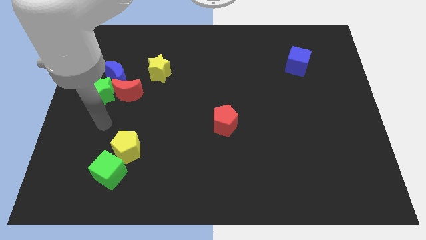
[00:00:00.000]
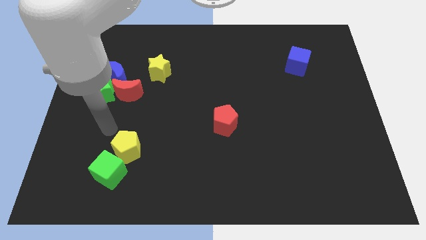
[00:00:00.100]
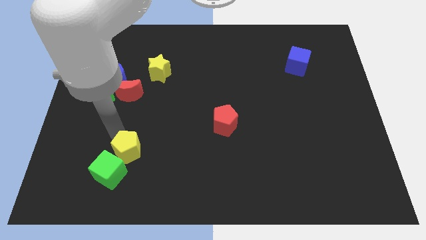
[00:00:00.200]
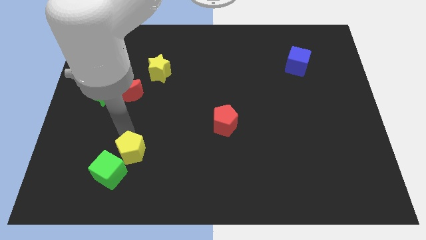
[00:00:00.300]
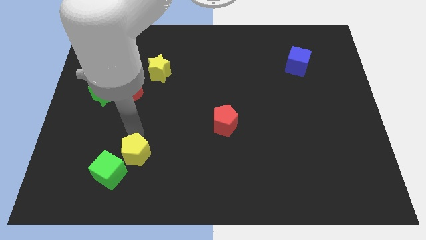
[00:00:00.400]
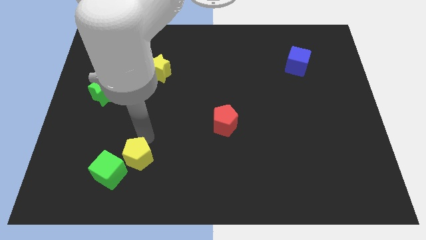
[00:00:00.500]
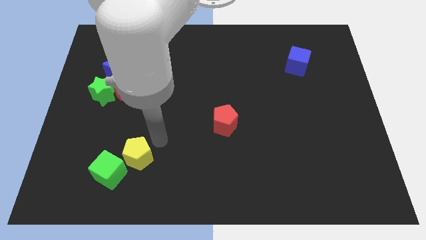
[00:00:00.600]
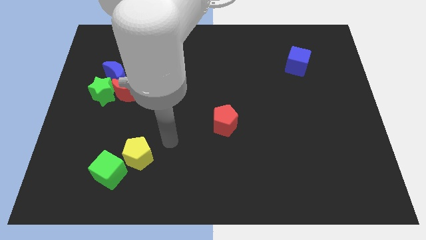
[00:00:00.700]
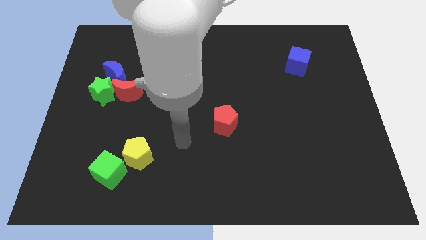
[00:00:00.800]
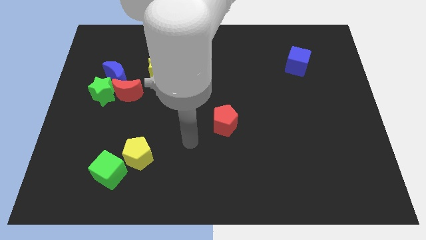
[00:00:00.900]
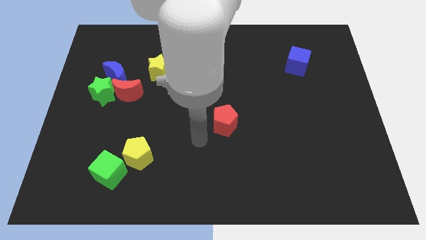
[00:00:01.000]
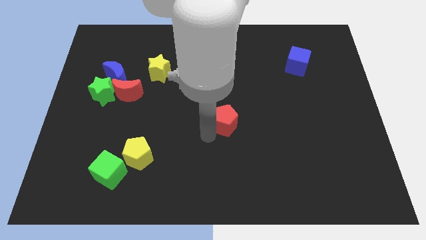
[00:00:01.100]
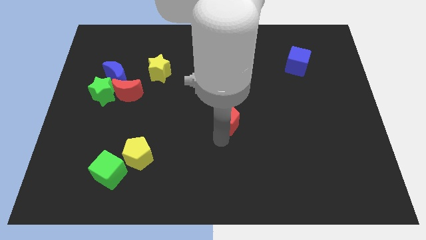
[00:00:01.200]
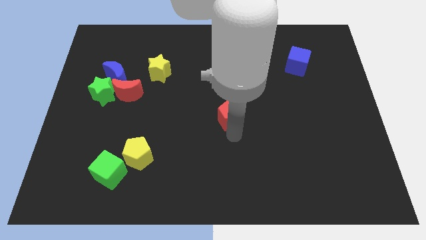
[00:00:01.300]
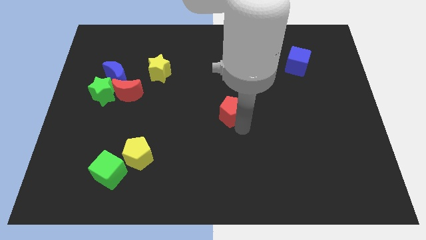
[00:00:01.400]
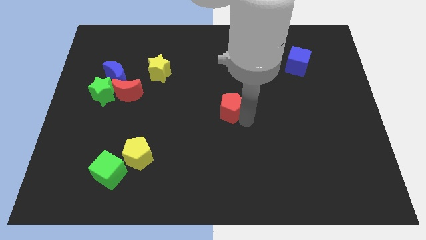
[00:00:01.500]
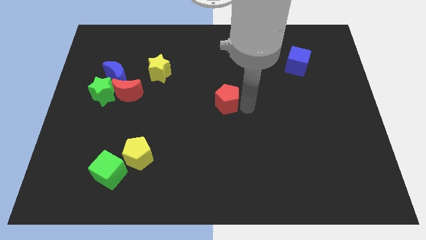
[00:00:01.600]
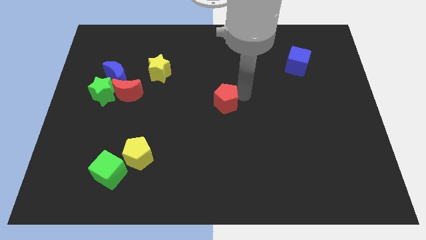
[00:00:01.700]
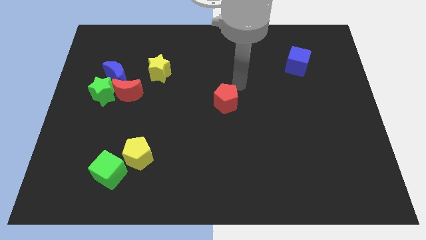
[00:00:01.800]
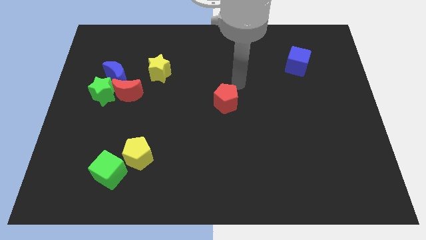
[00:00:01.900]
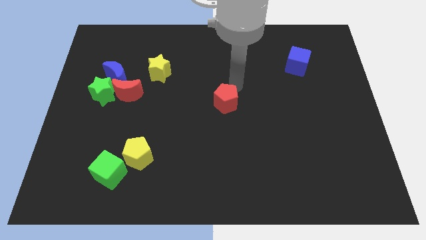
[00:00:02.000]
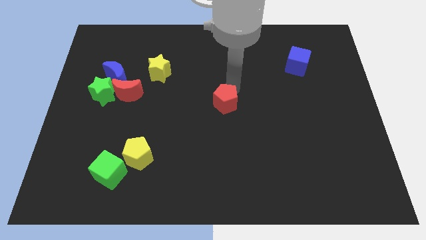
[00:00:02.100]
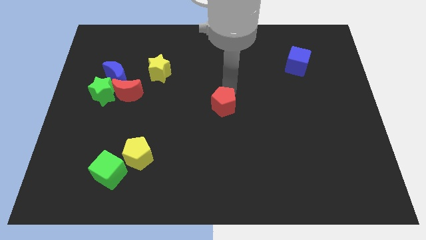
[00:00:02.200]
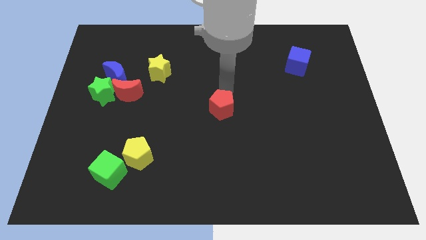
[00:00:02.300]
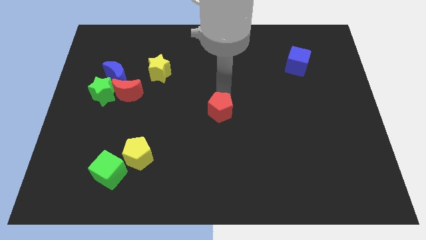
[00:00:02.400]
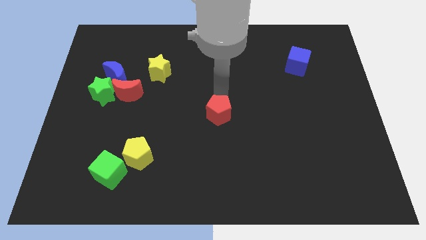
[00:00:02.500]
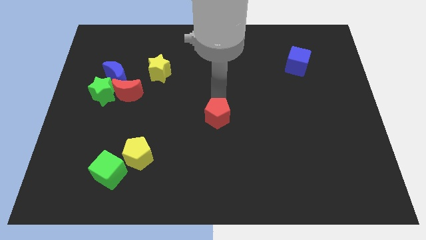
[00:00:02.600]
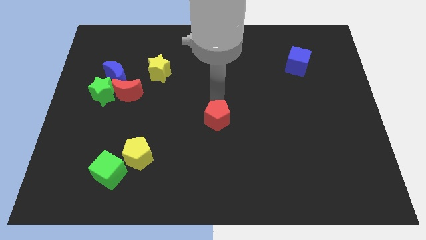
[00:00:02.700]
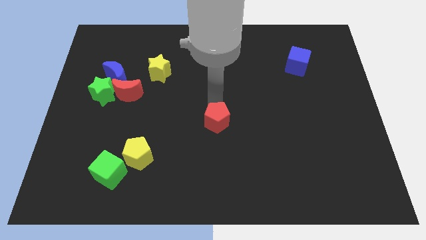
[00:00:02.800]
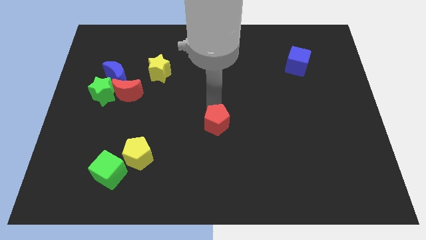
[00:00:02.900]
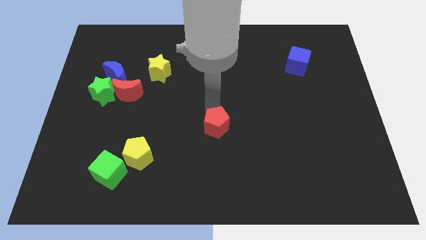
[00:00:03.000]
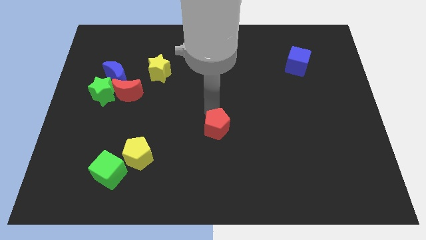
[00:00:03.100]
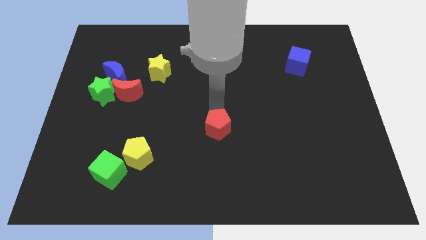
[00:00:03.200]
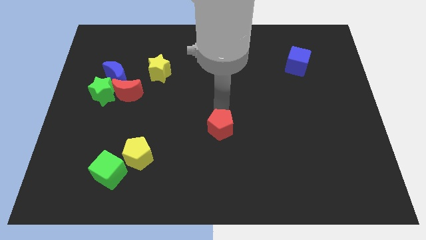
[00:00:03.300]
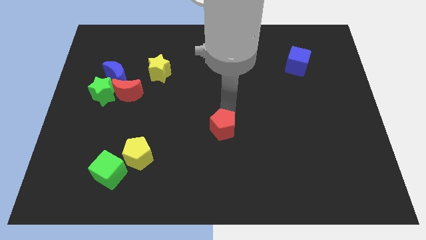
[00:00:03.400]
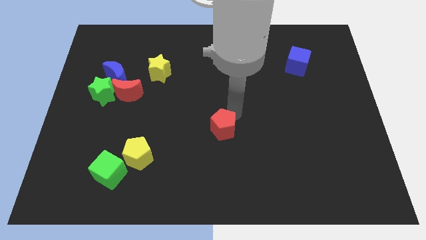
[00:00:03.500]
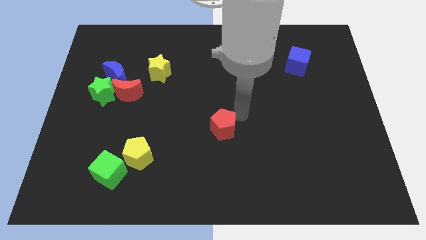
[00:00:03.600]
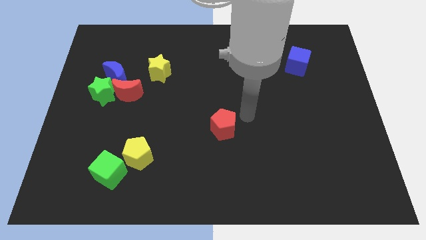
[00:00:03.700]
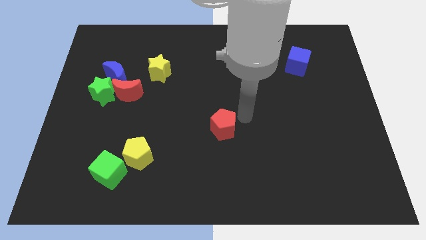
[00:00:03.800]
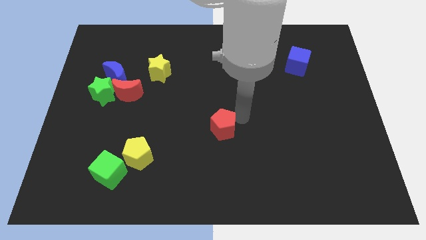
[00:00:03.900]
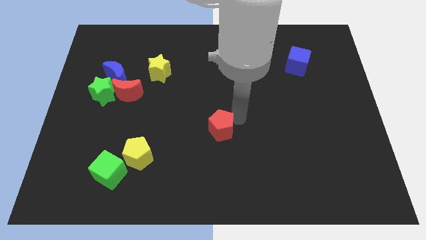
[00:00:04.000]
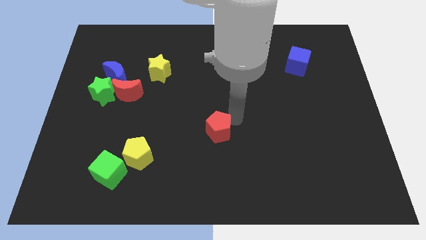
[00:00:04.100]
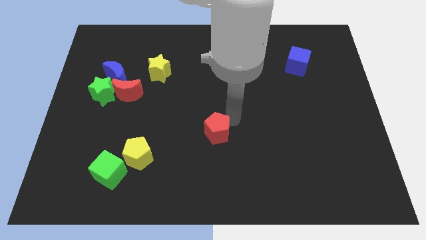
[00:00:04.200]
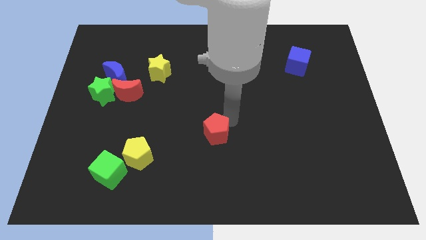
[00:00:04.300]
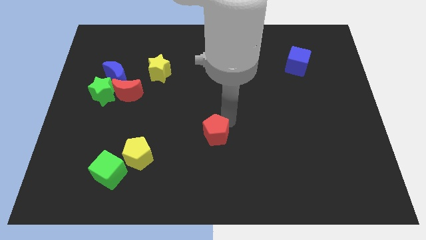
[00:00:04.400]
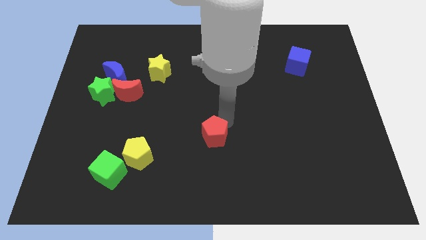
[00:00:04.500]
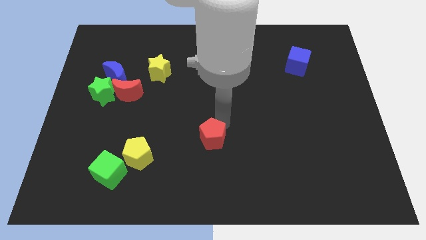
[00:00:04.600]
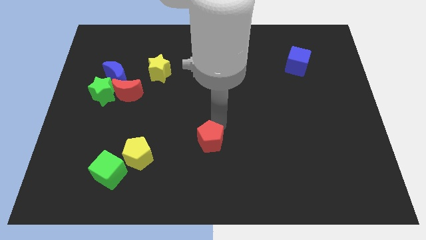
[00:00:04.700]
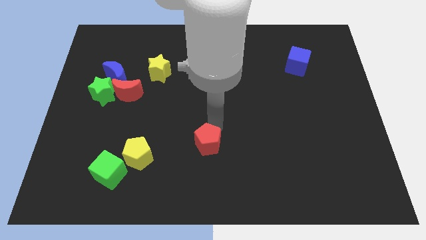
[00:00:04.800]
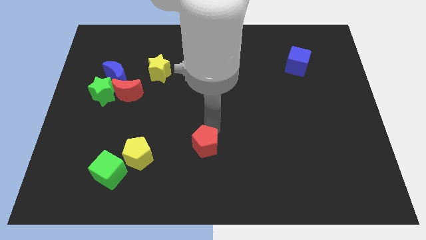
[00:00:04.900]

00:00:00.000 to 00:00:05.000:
move the red pentagon down and then to the left somewhat

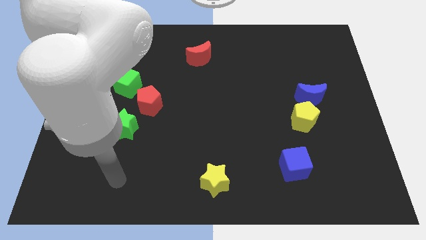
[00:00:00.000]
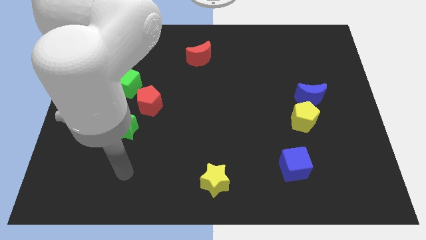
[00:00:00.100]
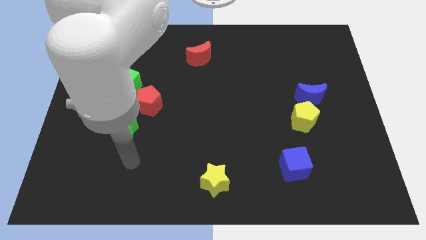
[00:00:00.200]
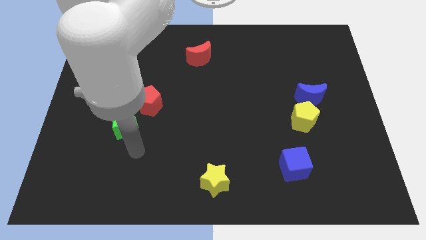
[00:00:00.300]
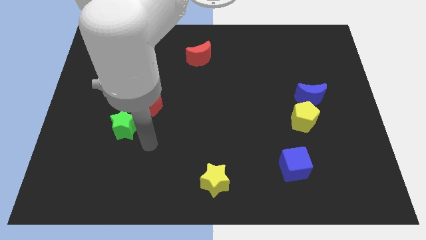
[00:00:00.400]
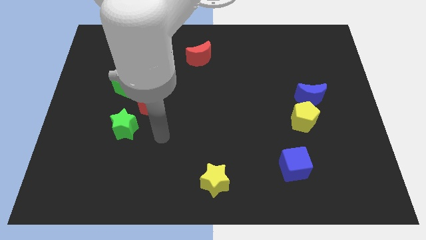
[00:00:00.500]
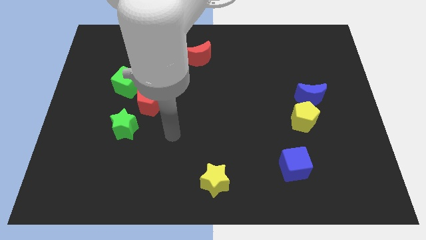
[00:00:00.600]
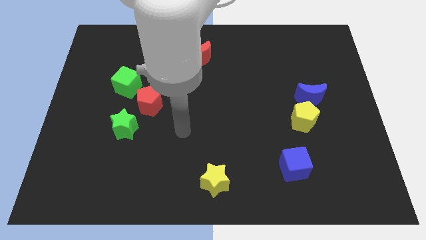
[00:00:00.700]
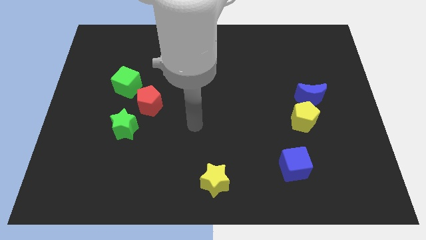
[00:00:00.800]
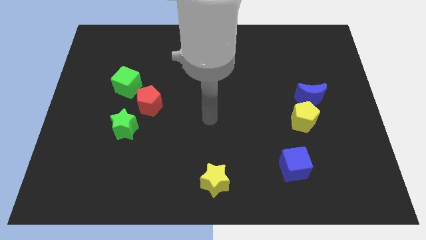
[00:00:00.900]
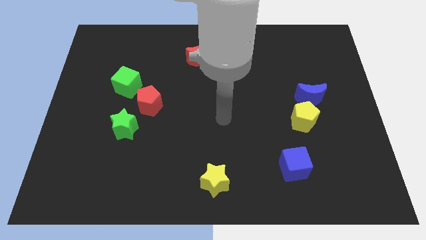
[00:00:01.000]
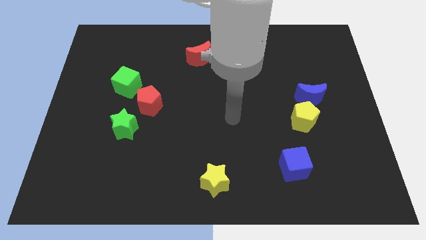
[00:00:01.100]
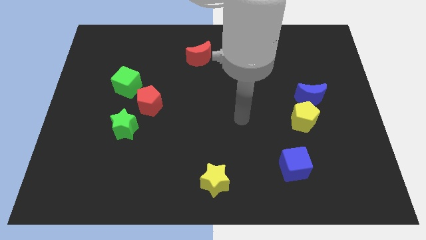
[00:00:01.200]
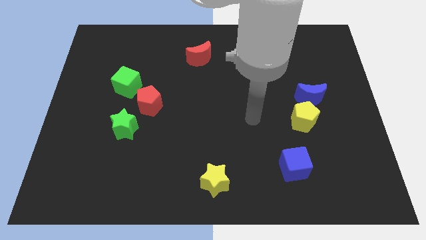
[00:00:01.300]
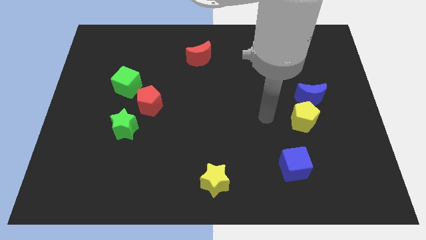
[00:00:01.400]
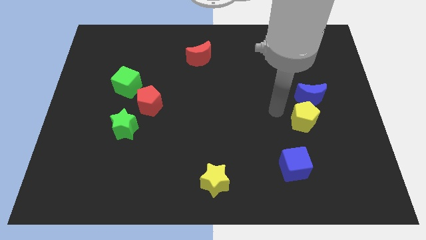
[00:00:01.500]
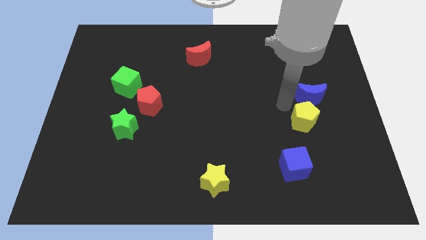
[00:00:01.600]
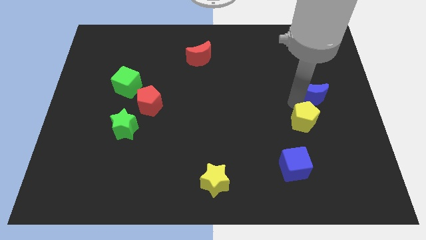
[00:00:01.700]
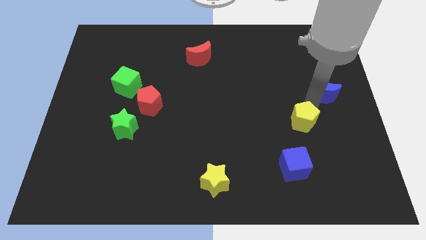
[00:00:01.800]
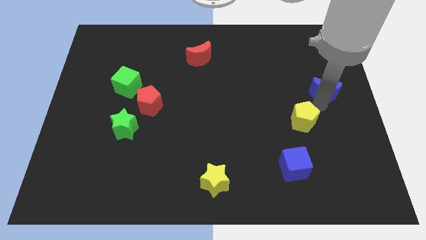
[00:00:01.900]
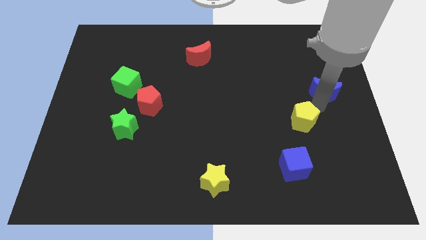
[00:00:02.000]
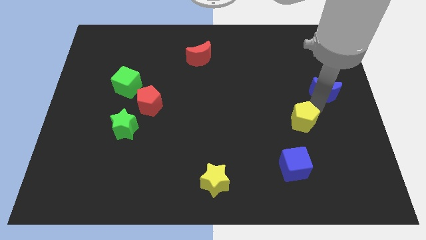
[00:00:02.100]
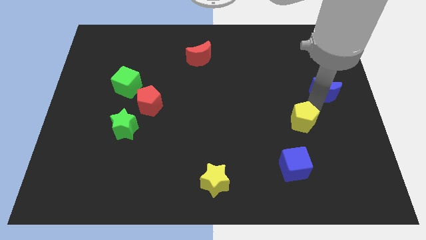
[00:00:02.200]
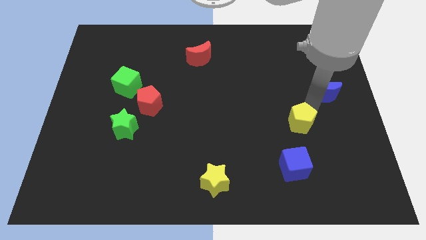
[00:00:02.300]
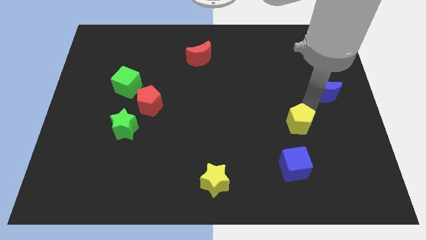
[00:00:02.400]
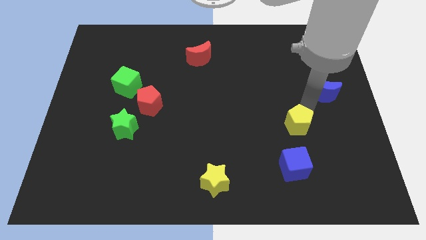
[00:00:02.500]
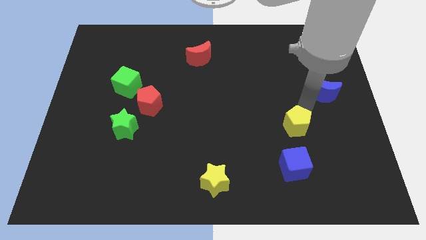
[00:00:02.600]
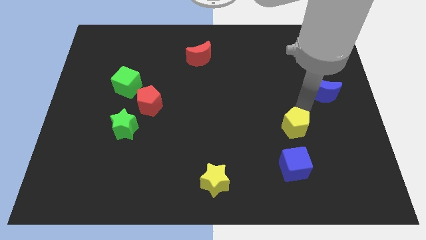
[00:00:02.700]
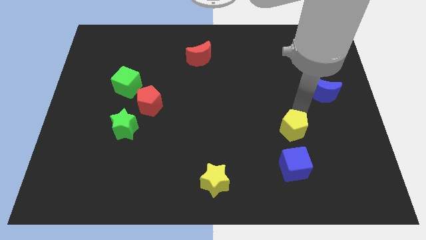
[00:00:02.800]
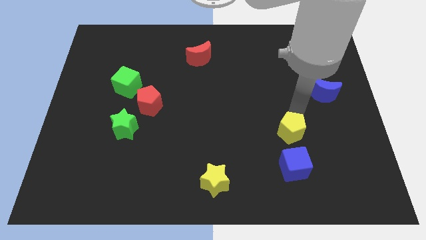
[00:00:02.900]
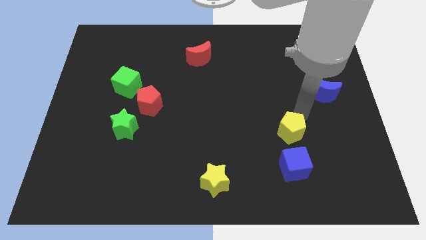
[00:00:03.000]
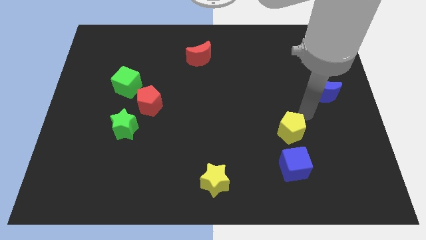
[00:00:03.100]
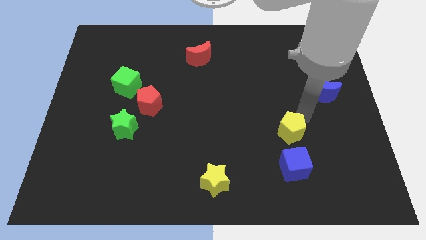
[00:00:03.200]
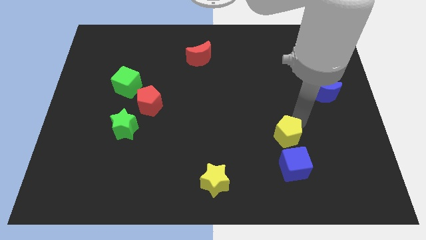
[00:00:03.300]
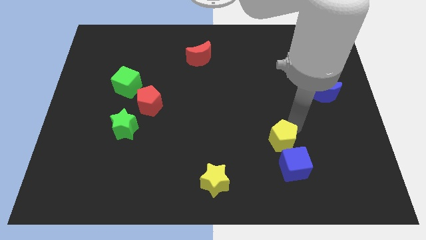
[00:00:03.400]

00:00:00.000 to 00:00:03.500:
slide the yellow pentagon downwards and to the left diagonally a bit
